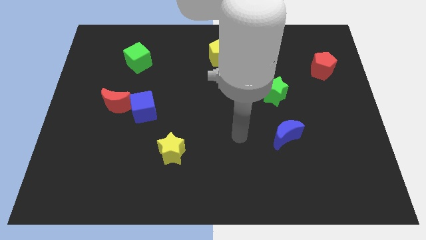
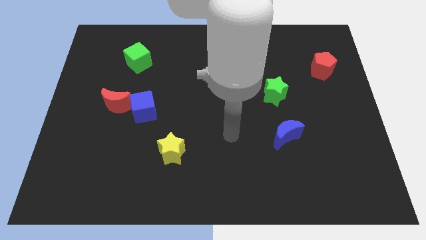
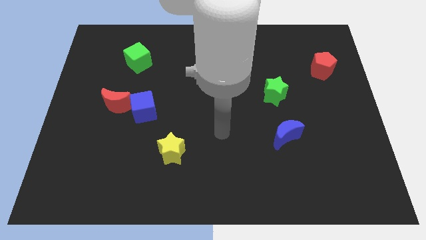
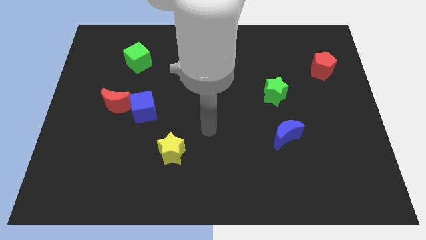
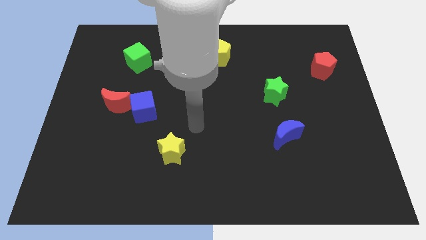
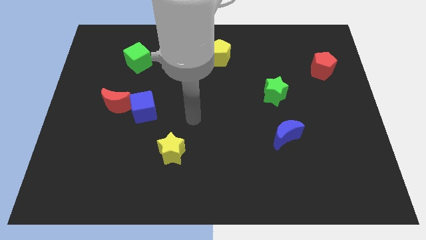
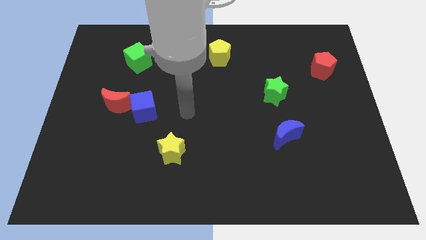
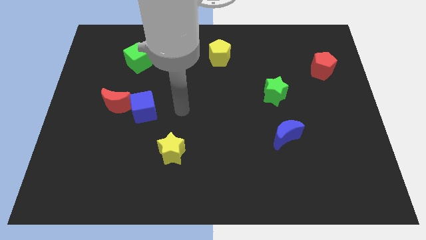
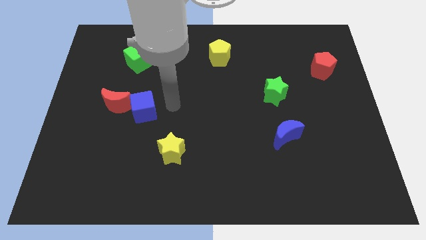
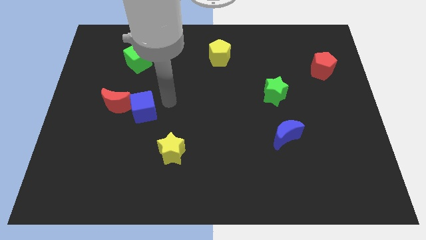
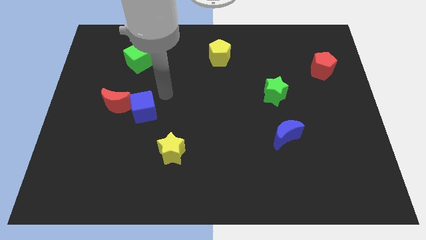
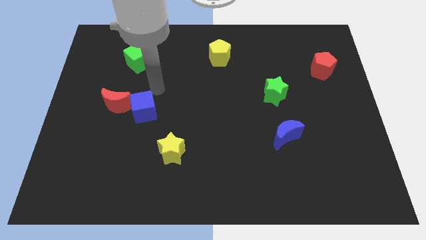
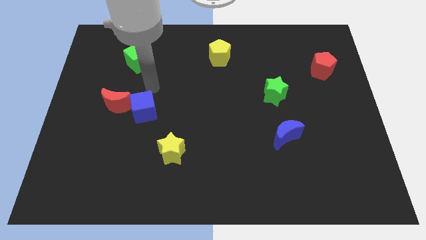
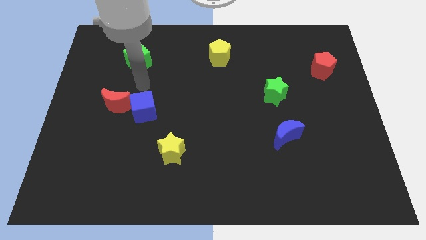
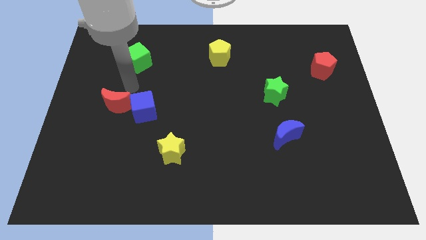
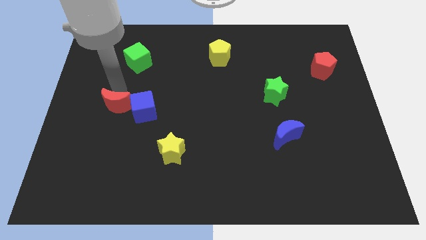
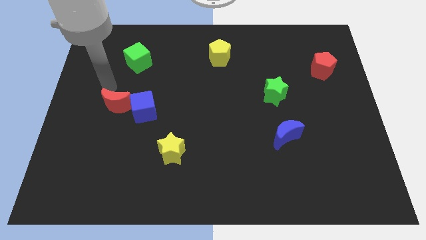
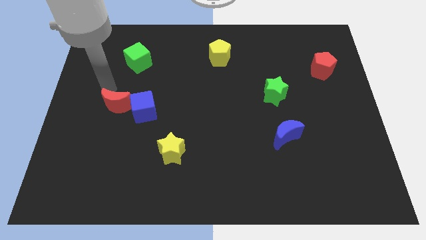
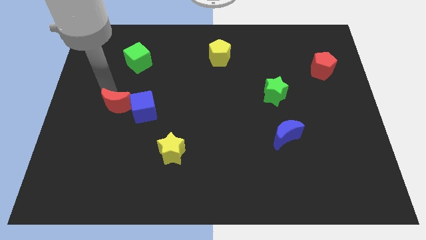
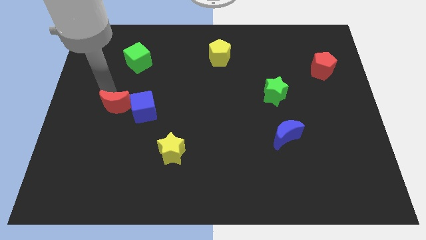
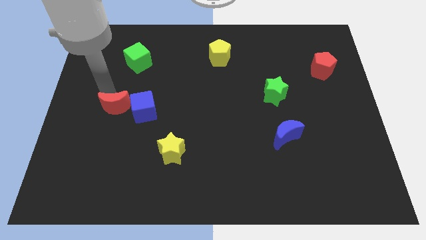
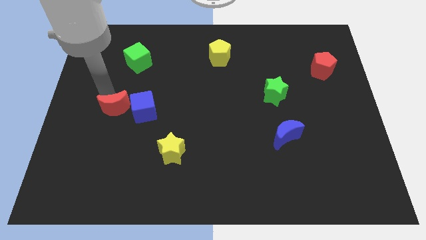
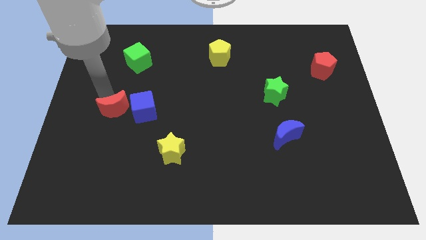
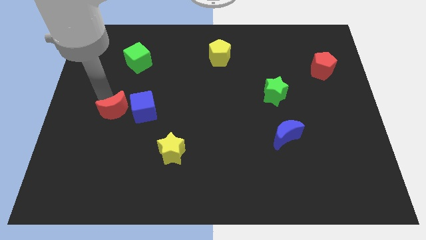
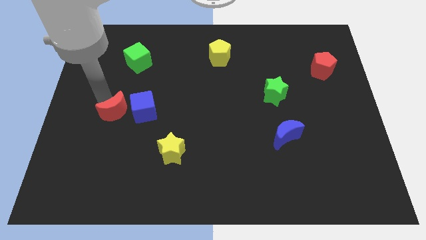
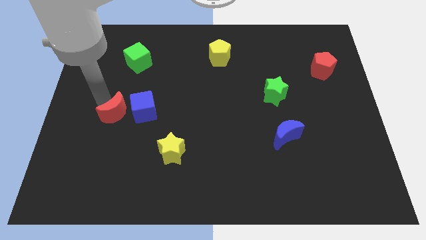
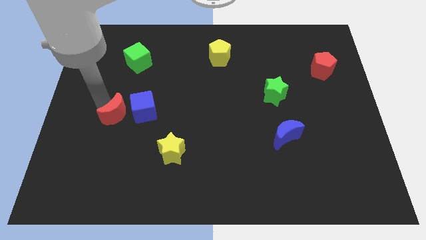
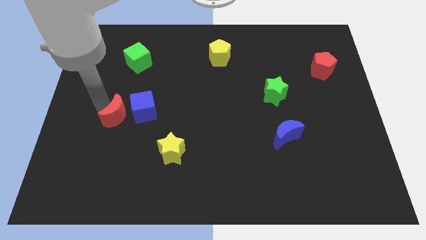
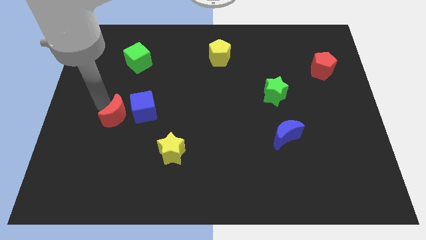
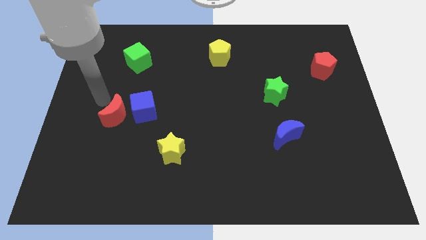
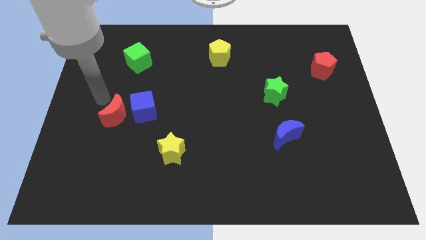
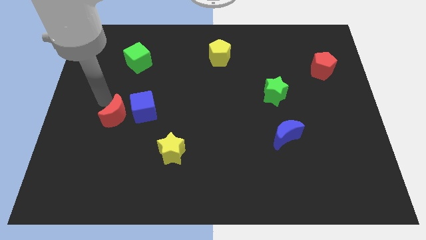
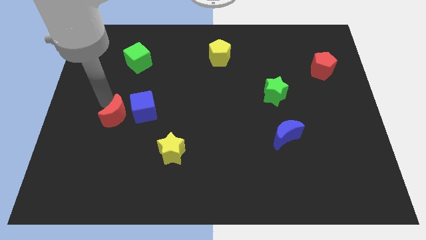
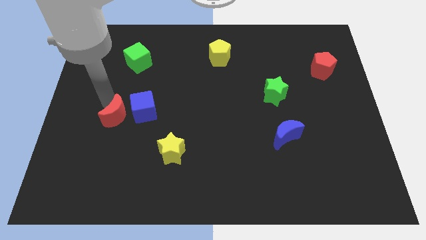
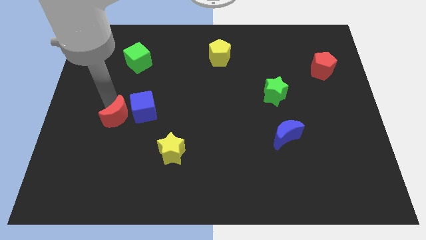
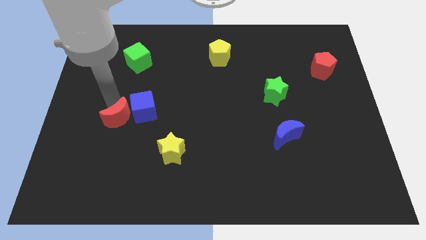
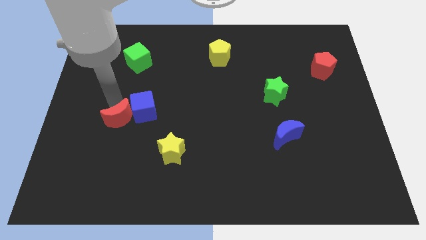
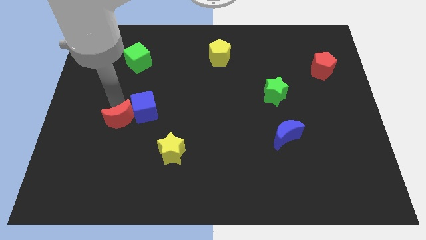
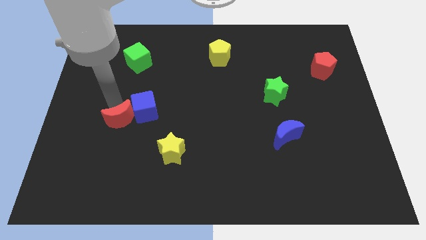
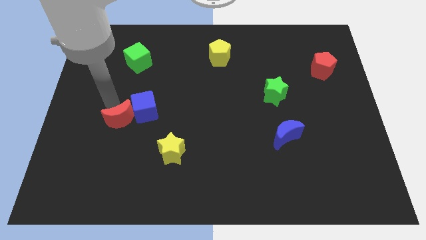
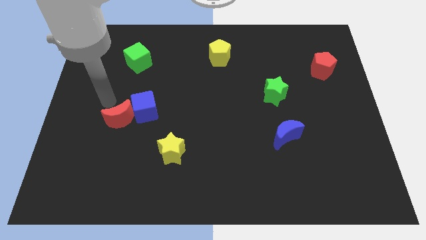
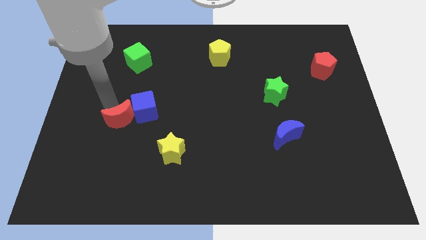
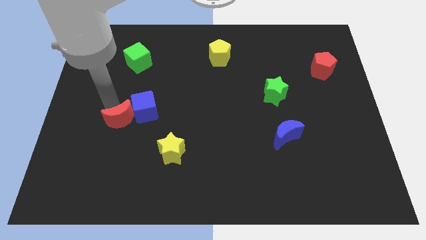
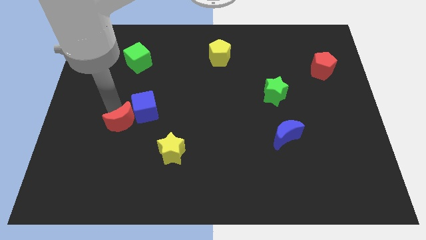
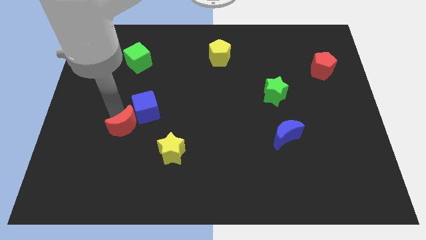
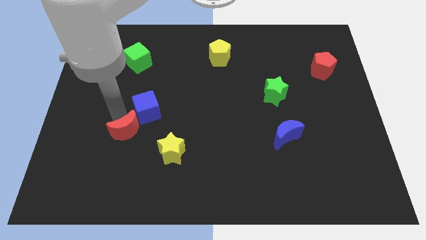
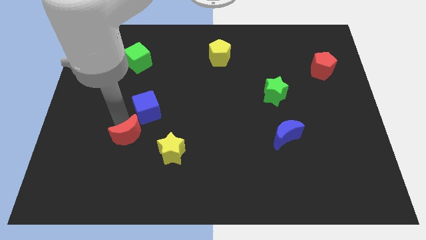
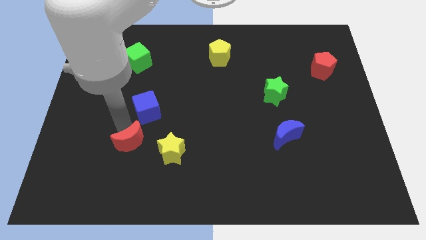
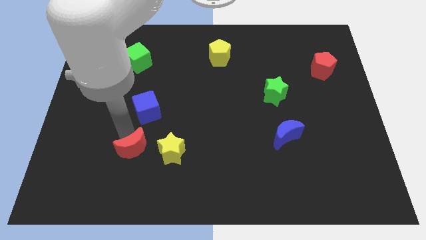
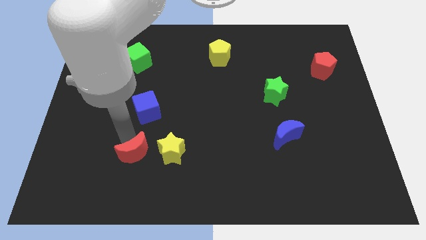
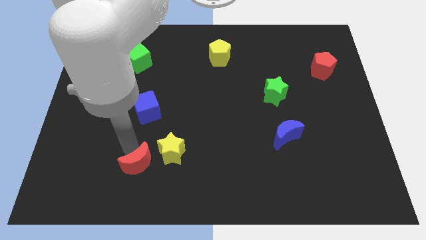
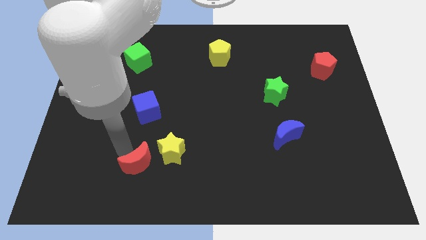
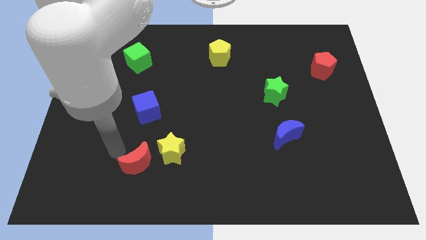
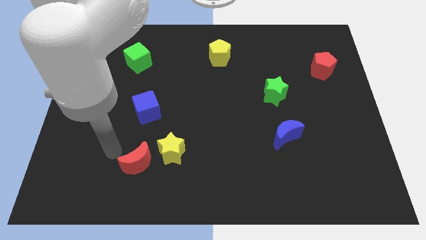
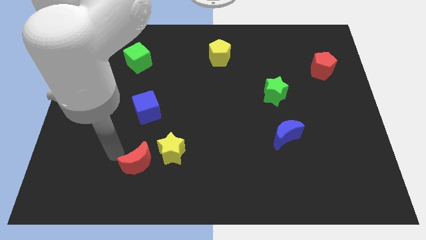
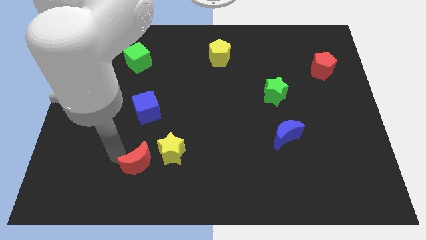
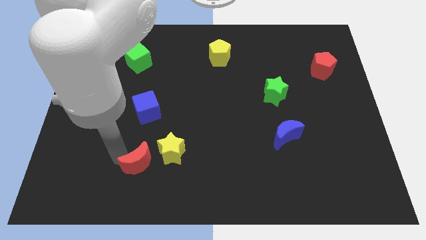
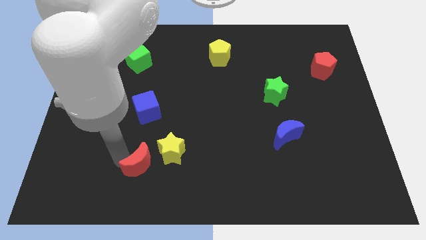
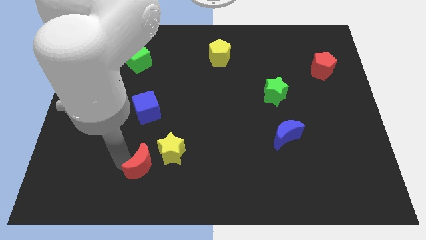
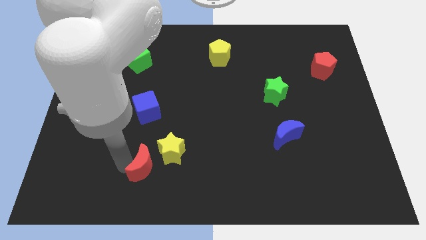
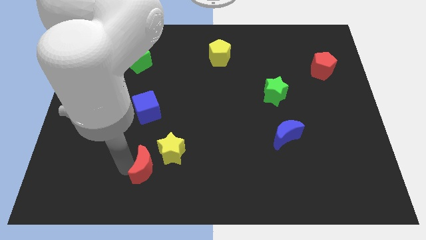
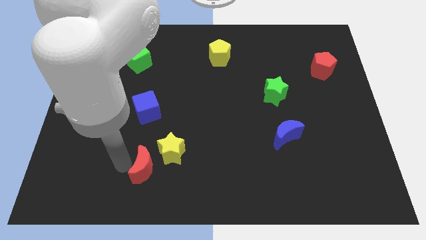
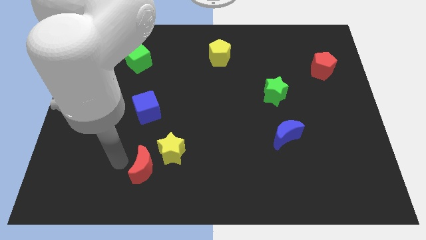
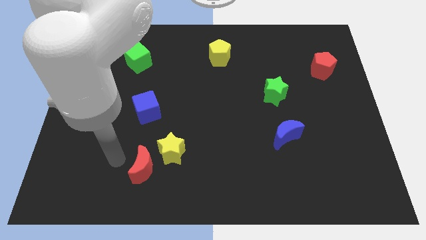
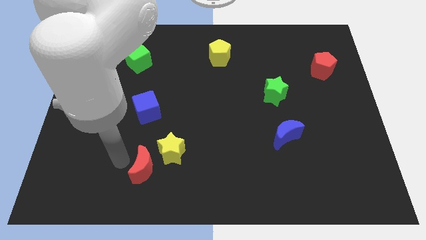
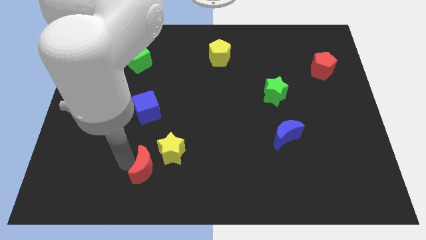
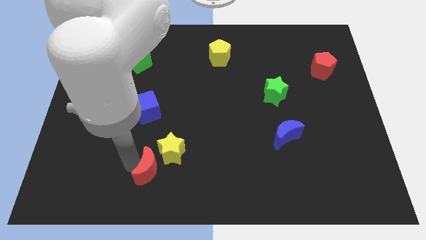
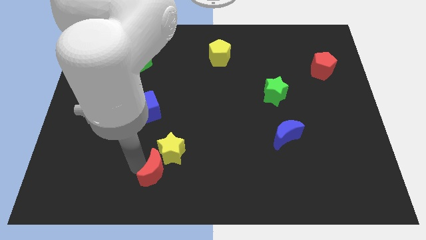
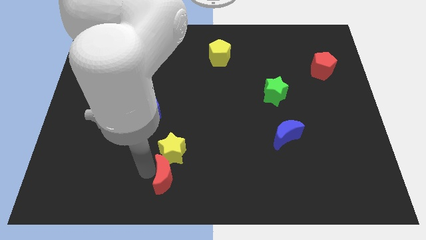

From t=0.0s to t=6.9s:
put the red moon diagonally down and to the right of the yellow star
